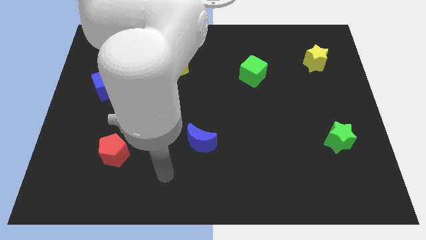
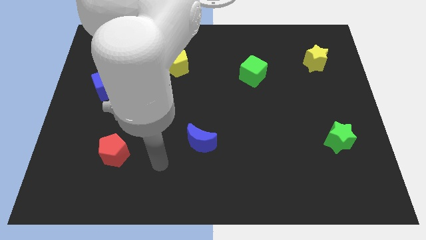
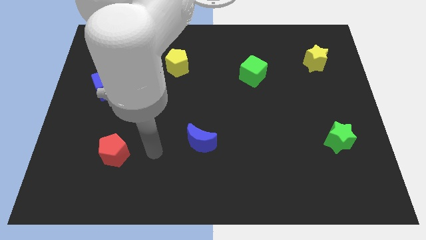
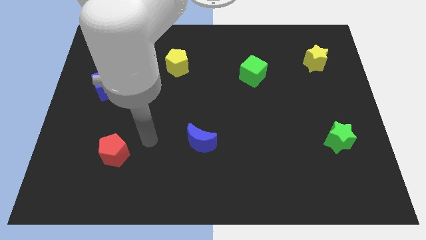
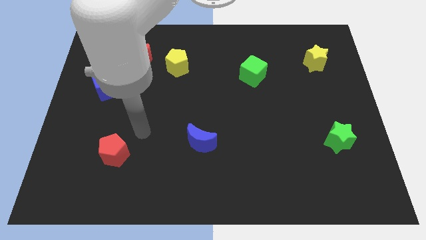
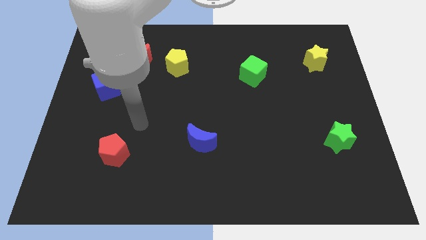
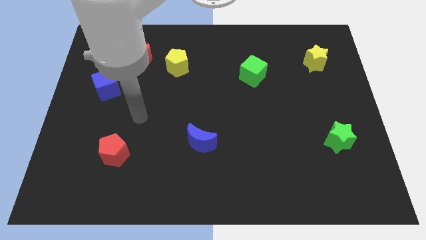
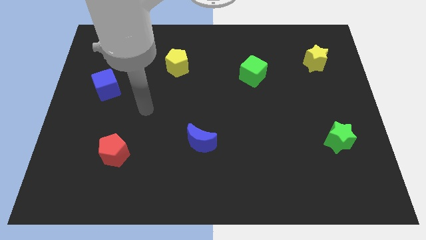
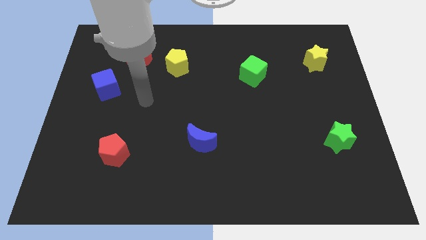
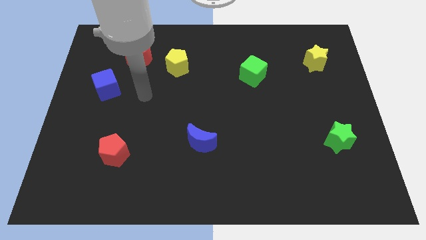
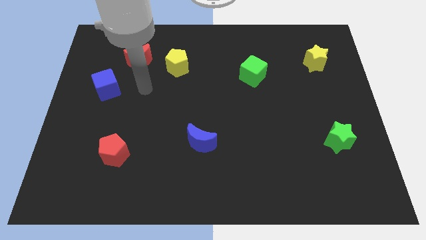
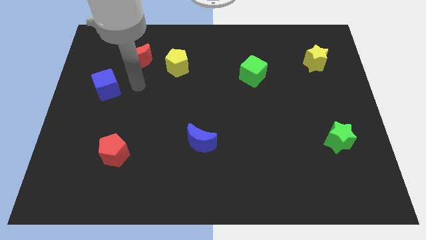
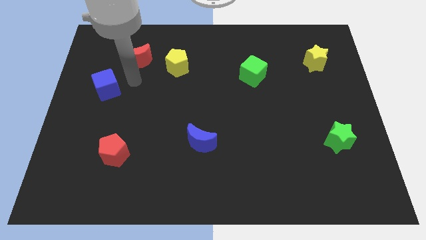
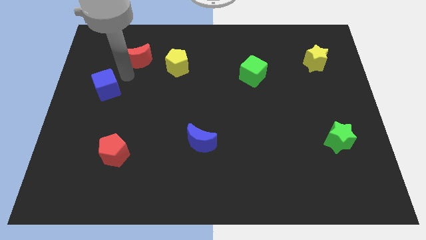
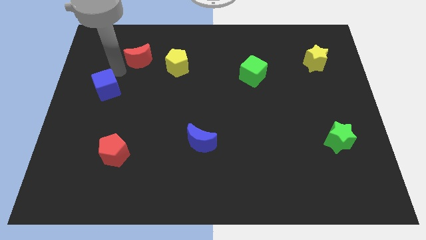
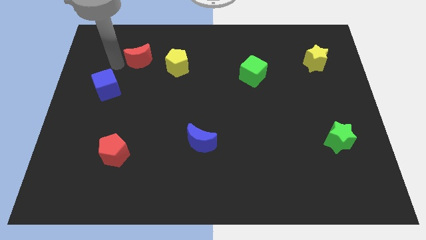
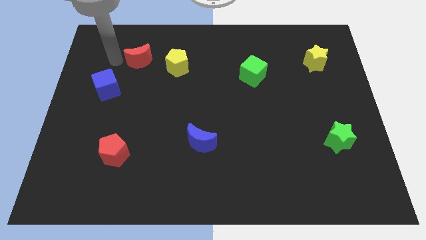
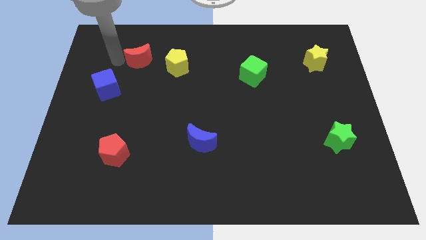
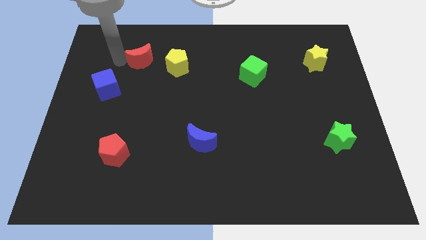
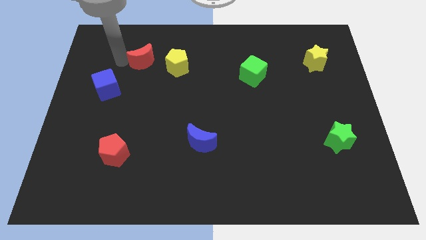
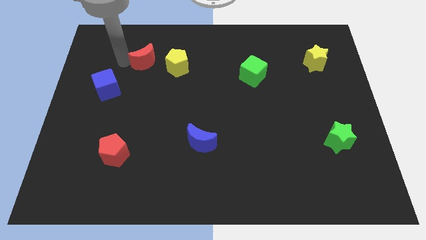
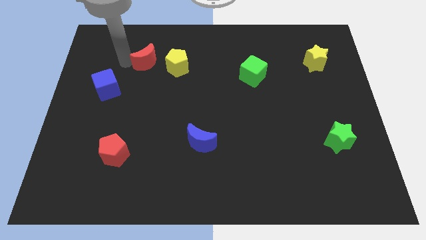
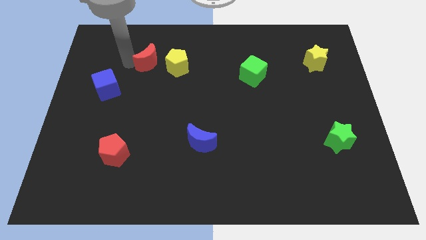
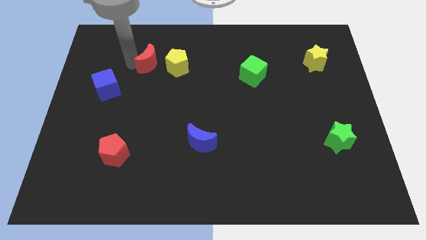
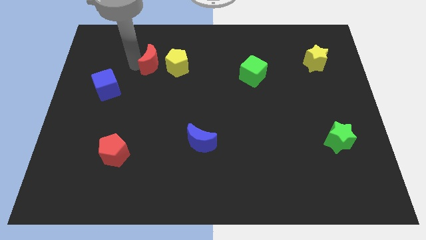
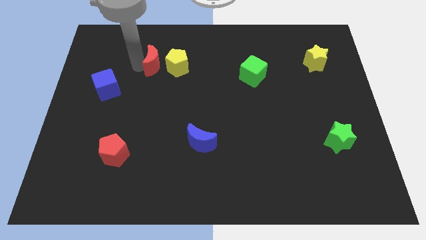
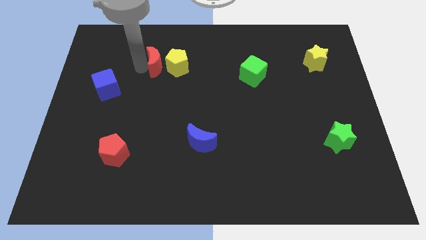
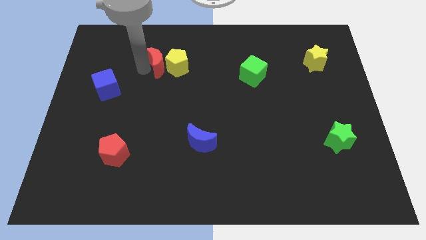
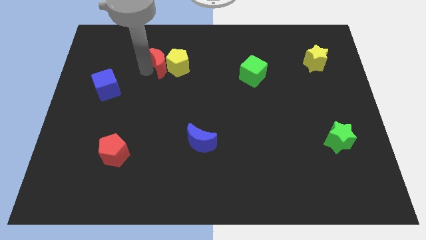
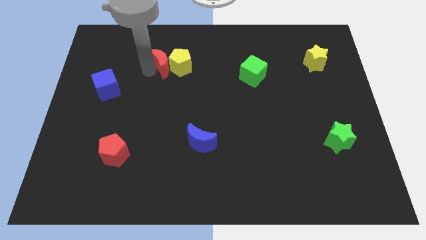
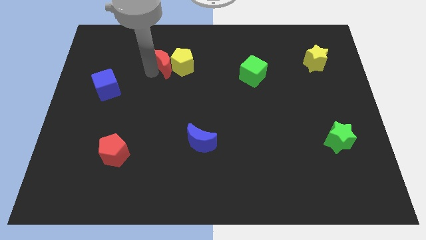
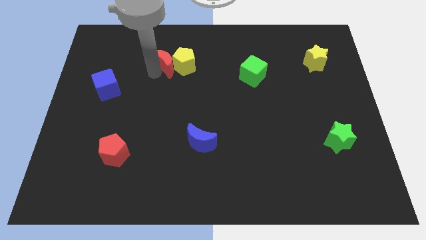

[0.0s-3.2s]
move the red moon to the right somewhat

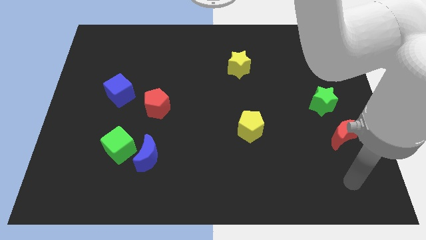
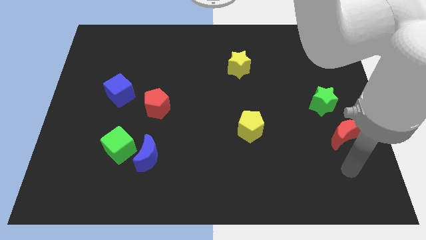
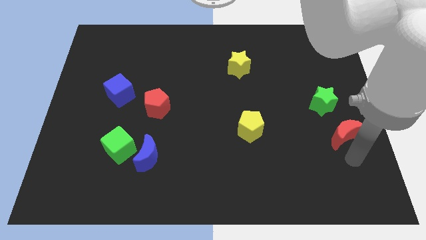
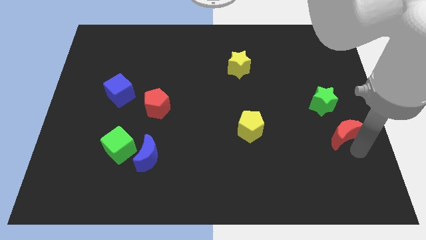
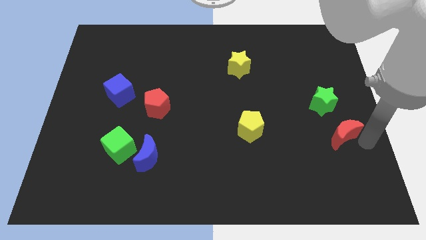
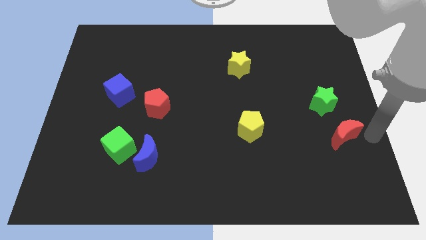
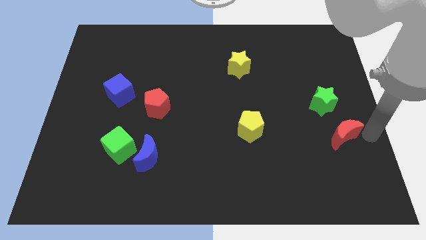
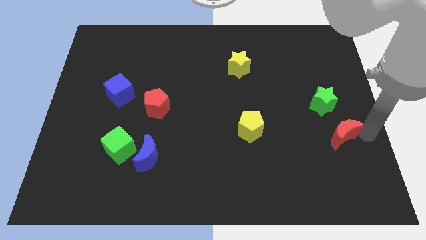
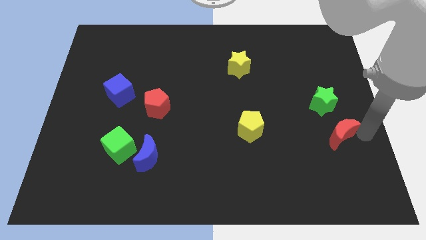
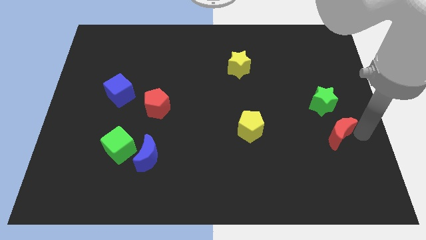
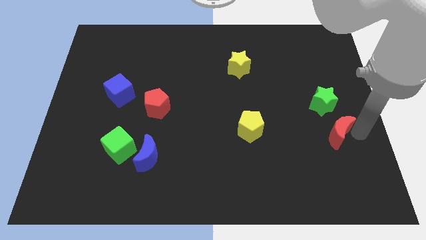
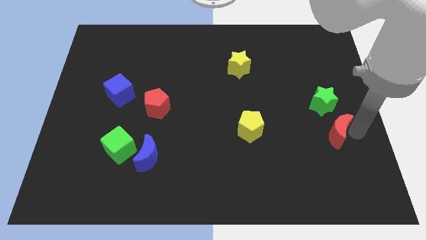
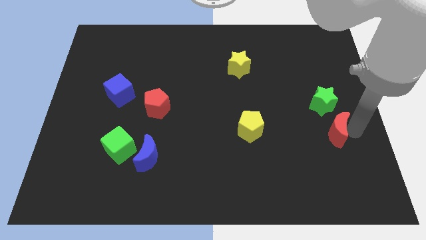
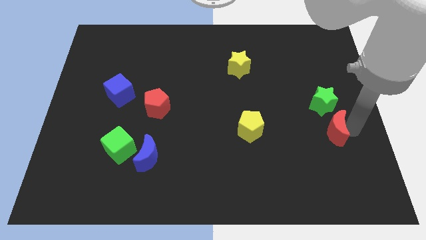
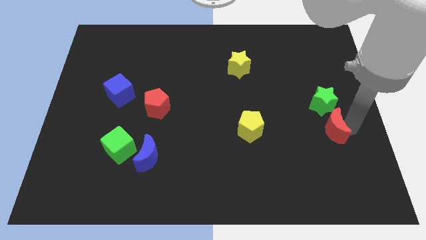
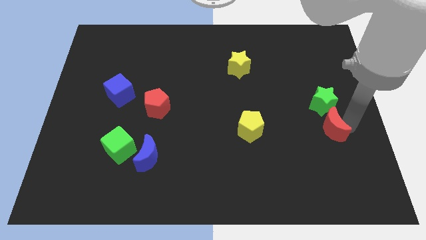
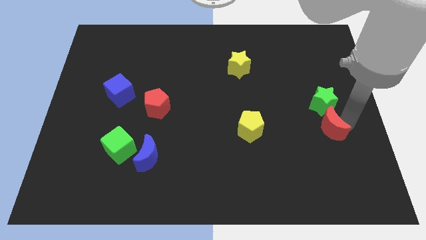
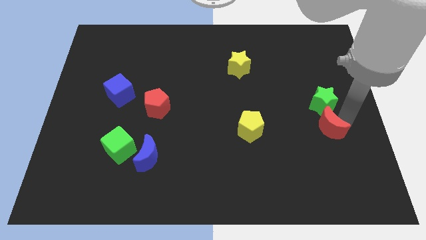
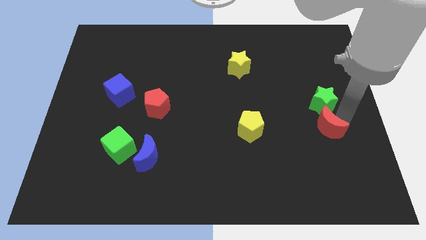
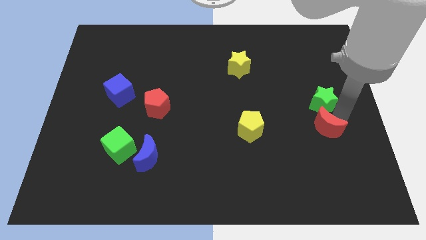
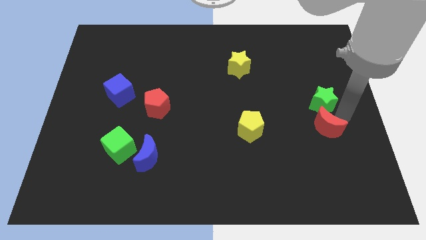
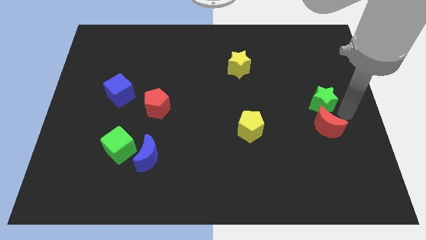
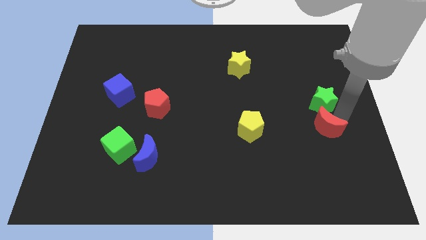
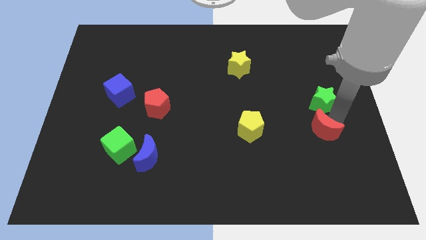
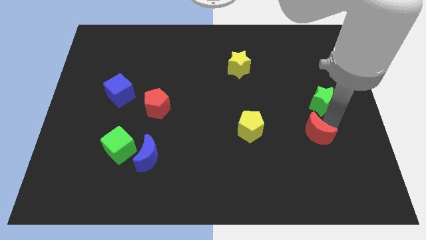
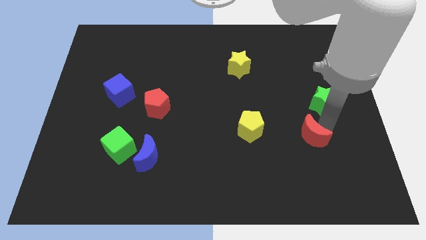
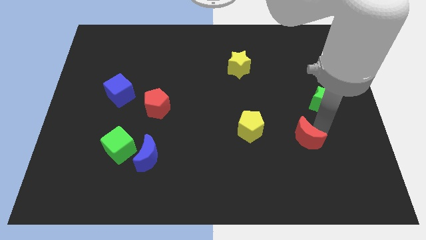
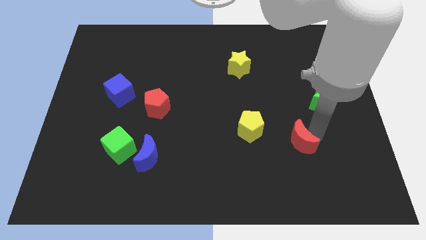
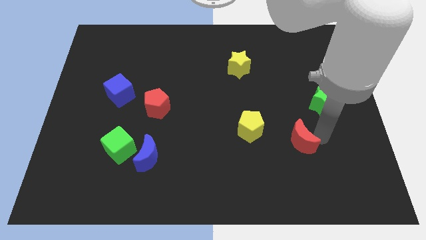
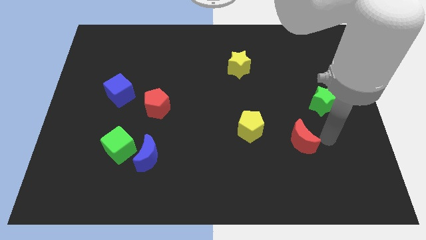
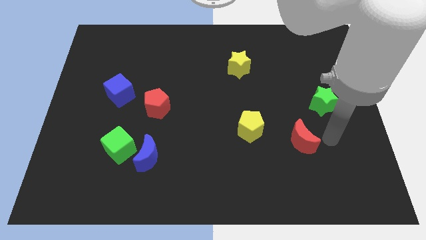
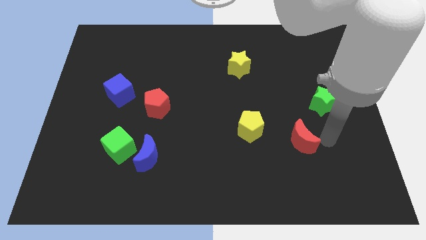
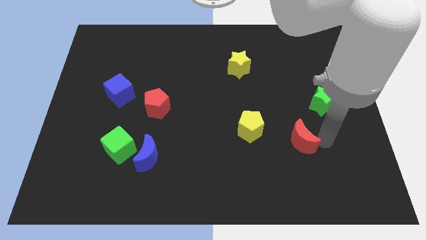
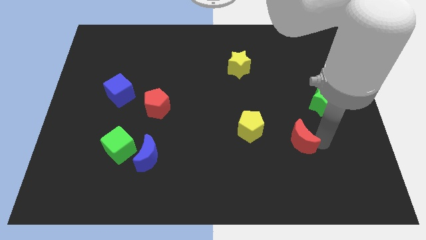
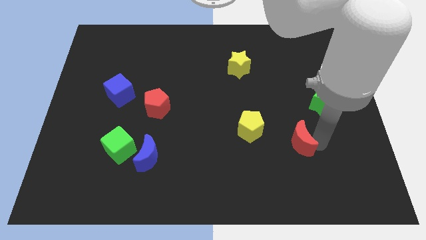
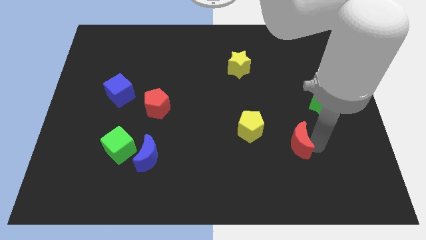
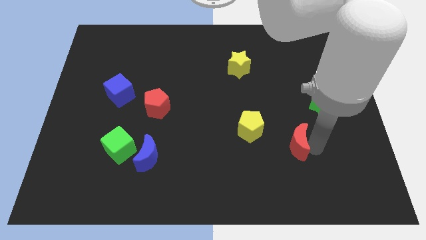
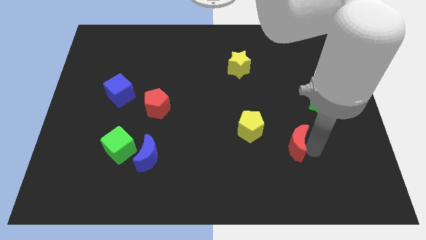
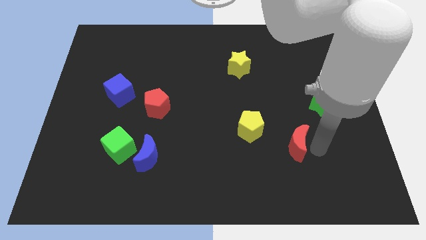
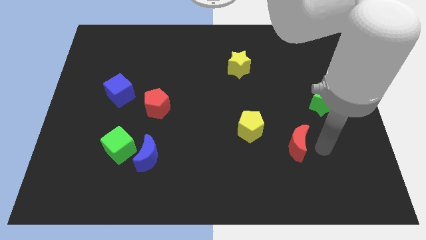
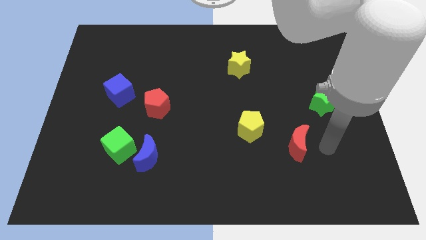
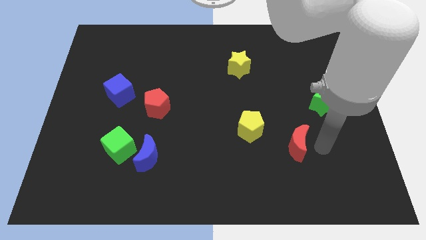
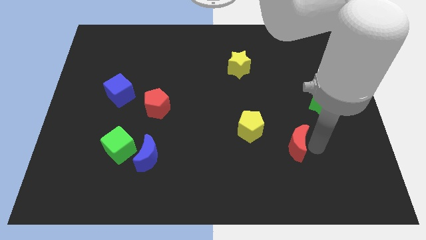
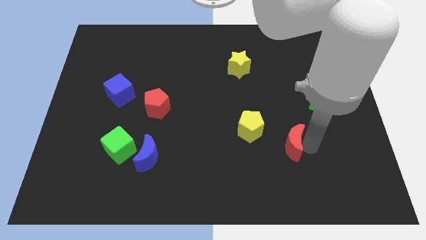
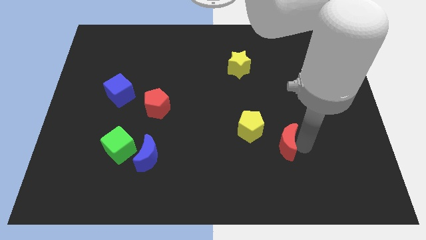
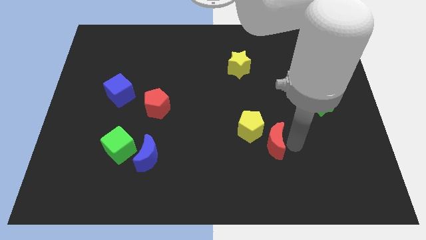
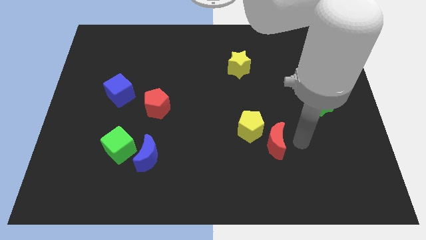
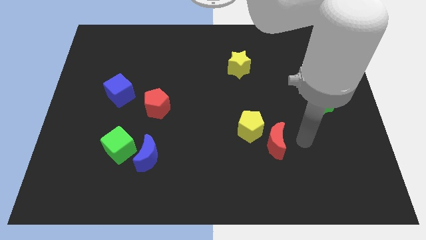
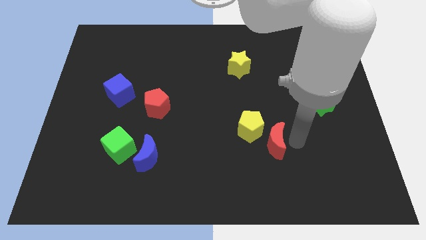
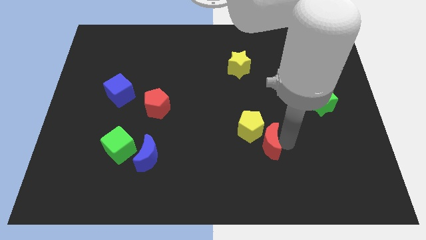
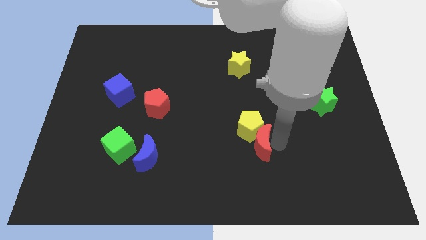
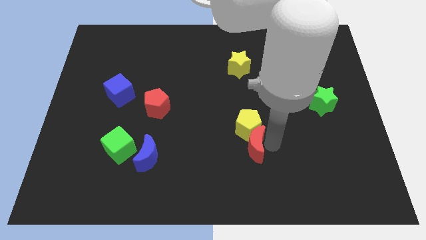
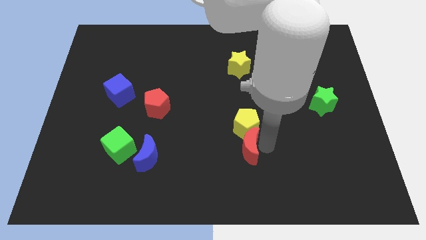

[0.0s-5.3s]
slide the red moon left
